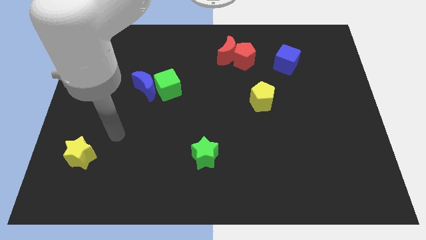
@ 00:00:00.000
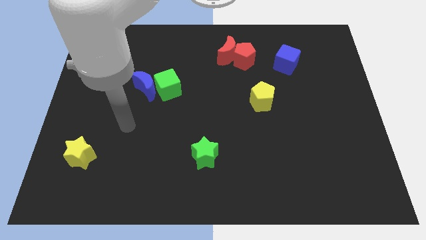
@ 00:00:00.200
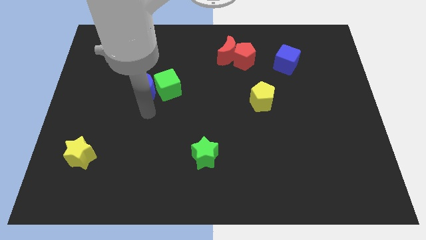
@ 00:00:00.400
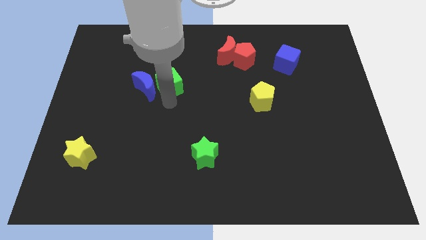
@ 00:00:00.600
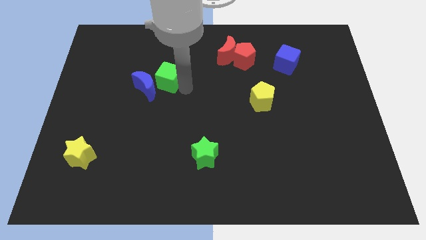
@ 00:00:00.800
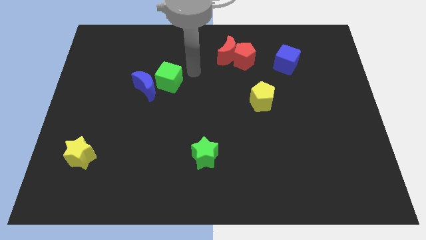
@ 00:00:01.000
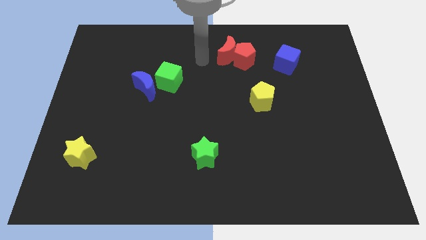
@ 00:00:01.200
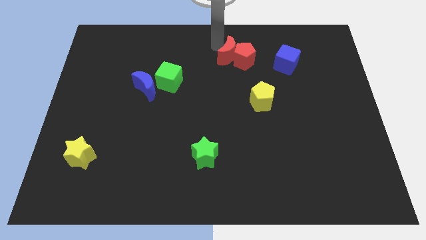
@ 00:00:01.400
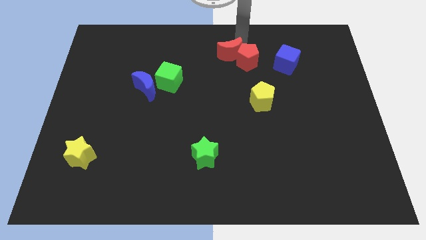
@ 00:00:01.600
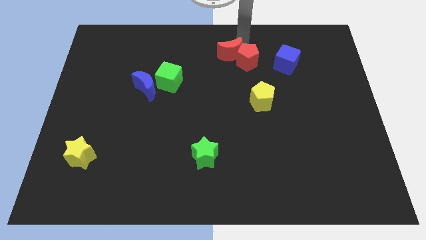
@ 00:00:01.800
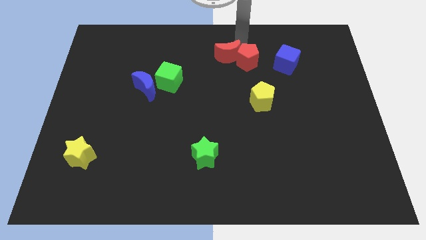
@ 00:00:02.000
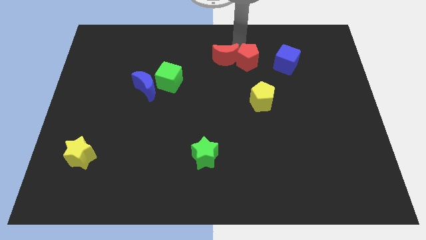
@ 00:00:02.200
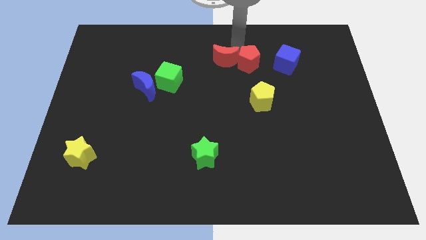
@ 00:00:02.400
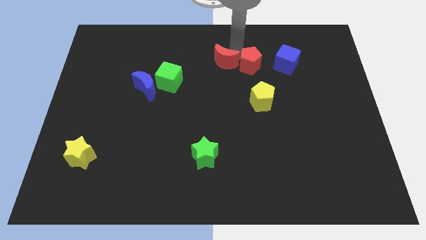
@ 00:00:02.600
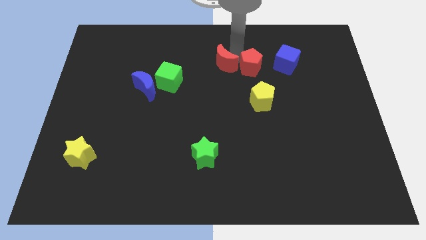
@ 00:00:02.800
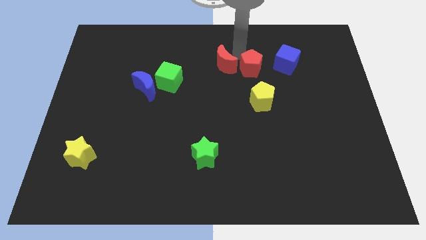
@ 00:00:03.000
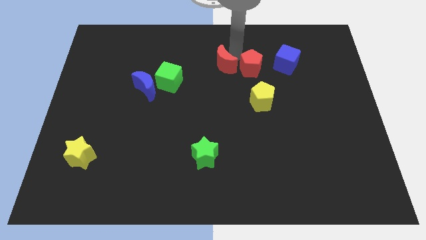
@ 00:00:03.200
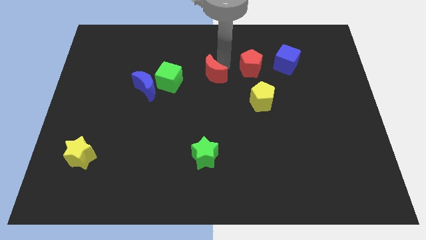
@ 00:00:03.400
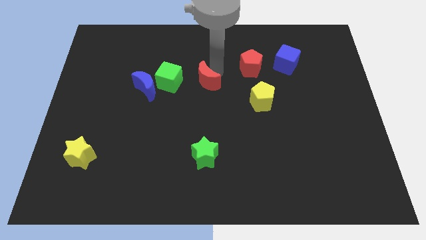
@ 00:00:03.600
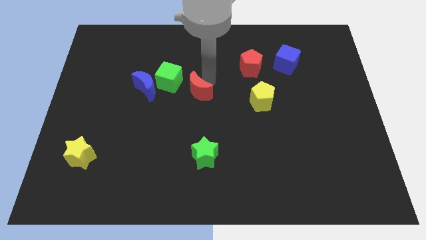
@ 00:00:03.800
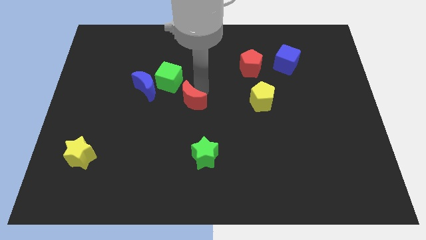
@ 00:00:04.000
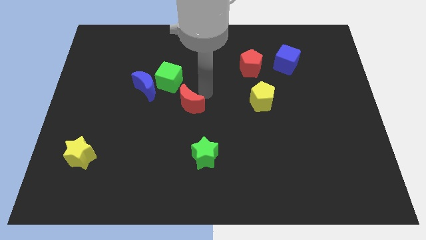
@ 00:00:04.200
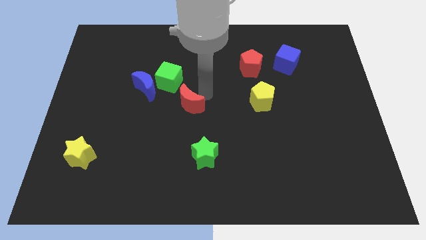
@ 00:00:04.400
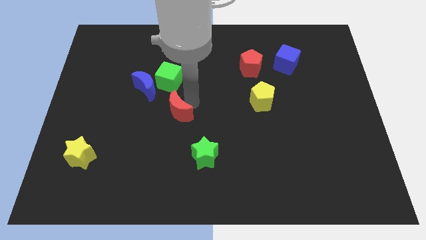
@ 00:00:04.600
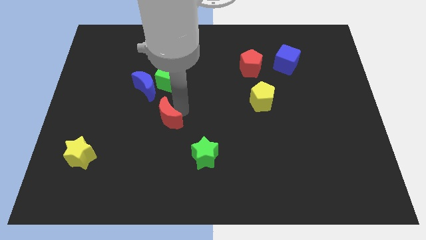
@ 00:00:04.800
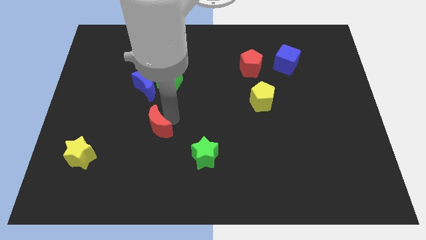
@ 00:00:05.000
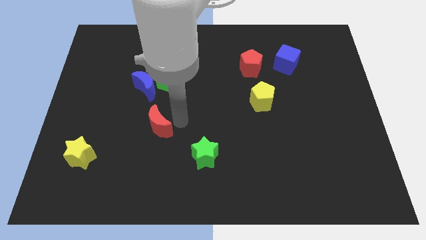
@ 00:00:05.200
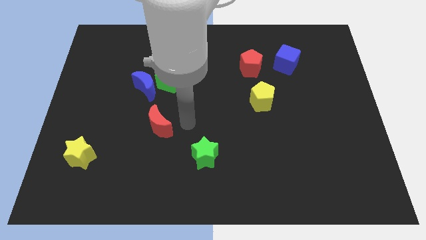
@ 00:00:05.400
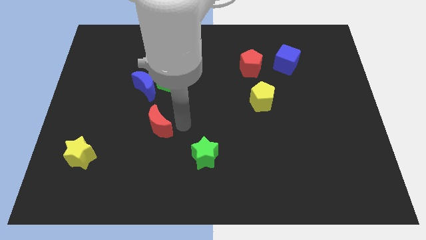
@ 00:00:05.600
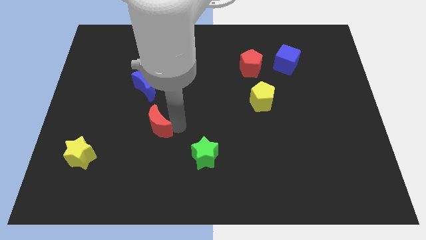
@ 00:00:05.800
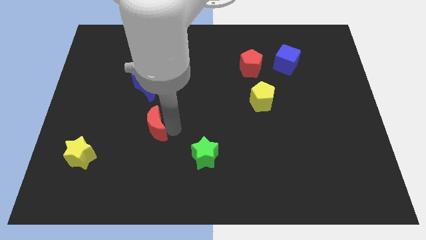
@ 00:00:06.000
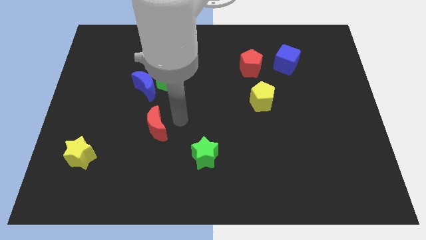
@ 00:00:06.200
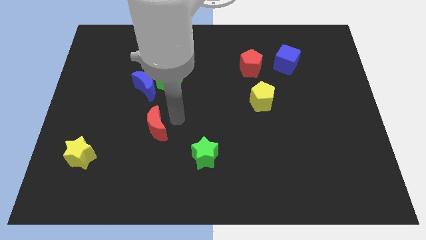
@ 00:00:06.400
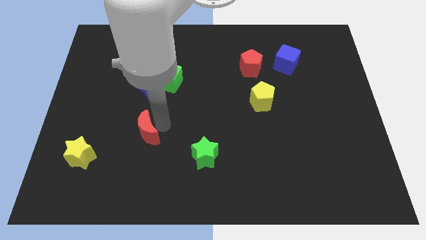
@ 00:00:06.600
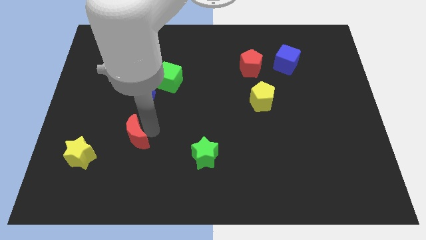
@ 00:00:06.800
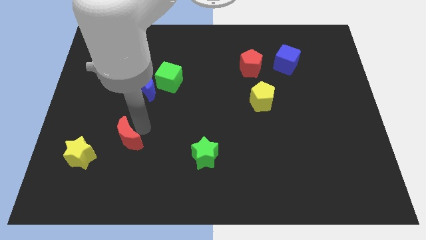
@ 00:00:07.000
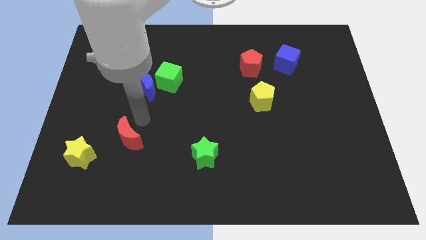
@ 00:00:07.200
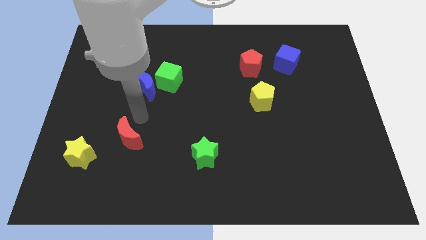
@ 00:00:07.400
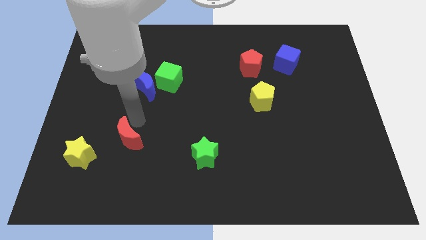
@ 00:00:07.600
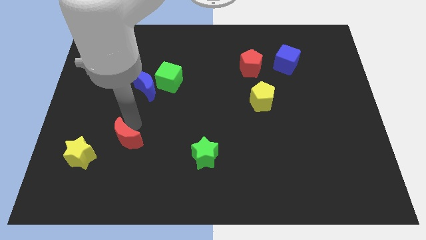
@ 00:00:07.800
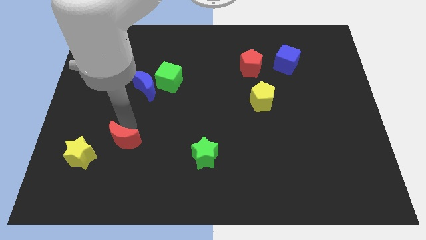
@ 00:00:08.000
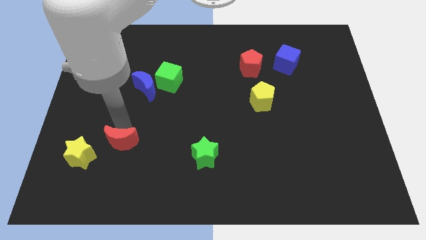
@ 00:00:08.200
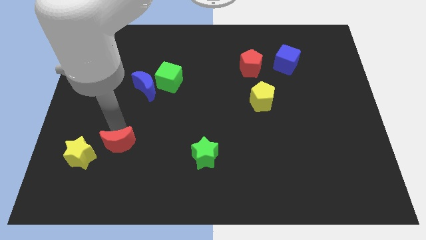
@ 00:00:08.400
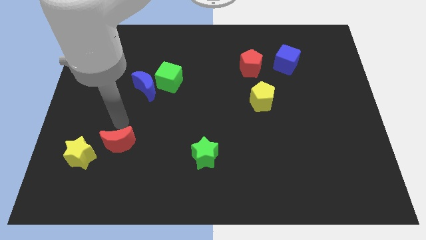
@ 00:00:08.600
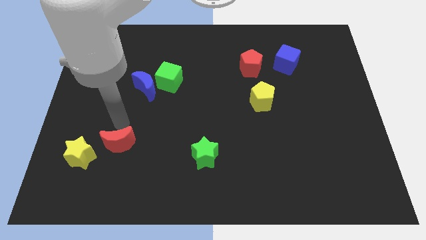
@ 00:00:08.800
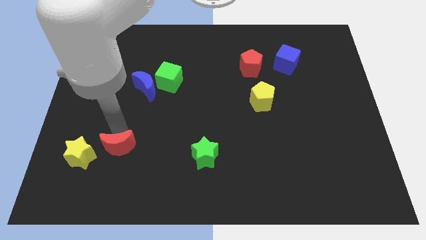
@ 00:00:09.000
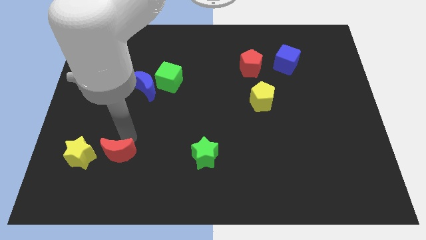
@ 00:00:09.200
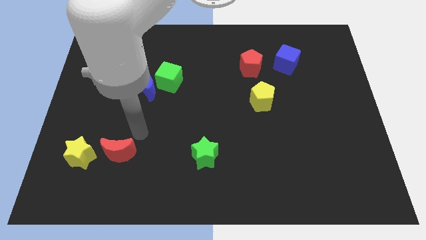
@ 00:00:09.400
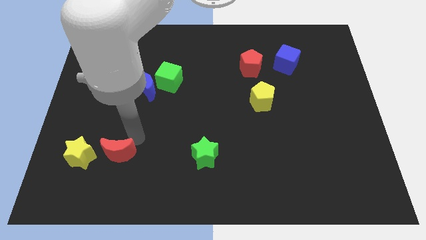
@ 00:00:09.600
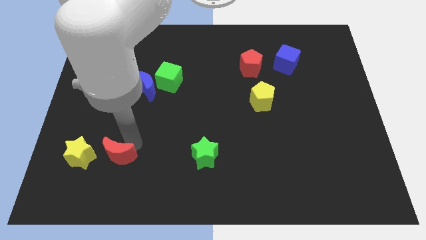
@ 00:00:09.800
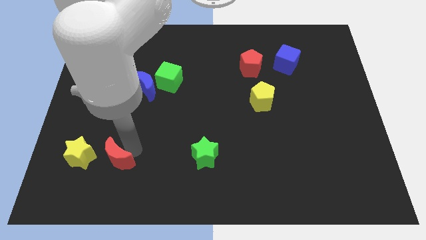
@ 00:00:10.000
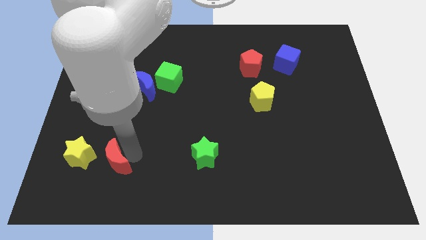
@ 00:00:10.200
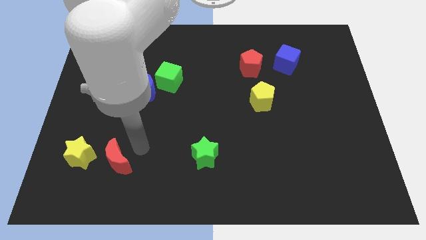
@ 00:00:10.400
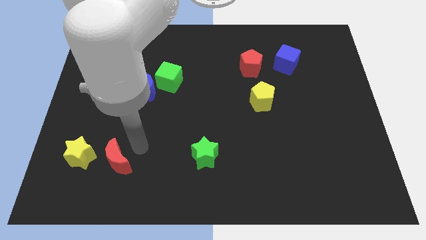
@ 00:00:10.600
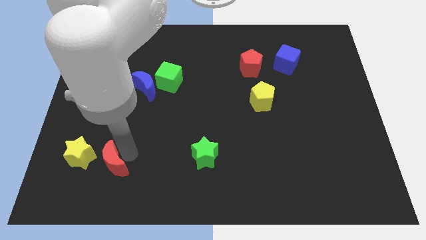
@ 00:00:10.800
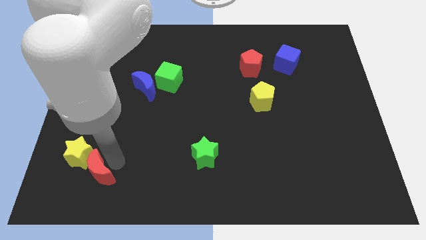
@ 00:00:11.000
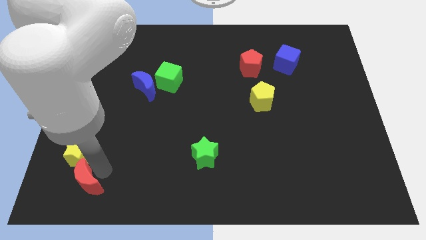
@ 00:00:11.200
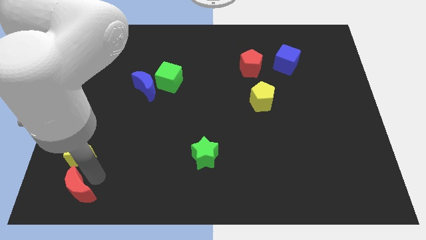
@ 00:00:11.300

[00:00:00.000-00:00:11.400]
slide the red moon to the bottom left of the board

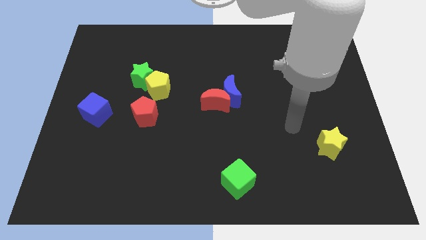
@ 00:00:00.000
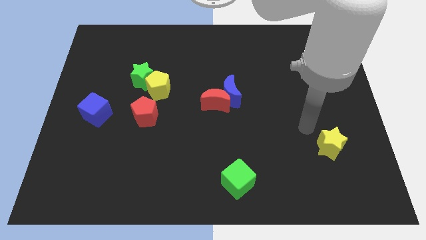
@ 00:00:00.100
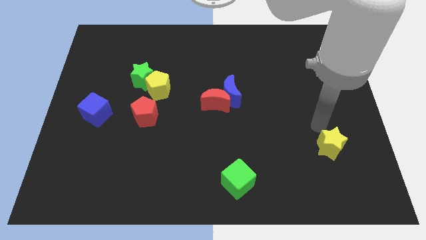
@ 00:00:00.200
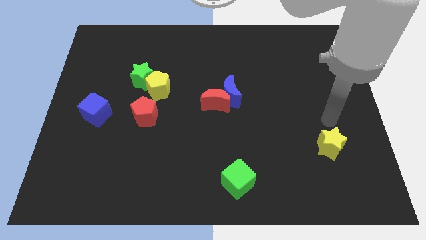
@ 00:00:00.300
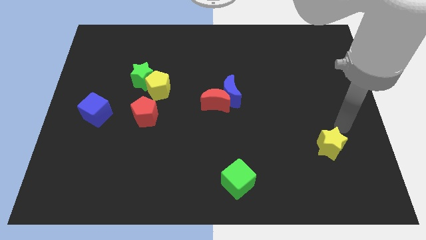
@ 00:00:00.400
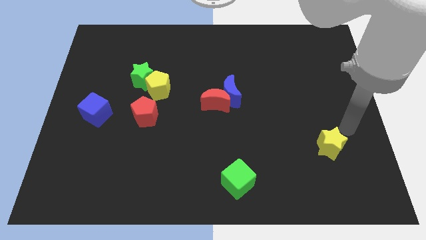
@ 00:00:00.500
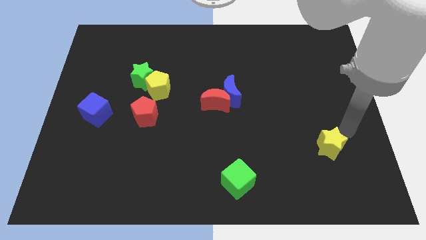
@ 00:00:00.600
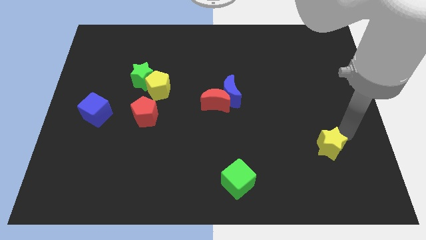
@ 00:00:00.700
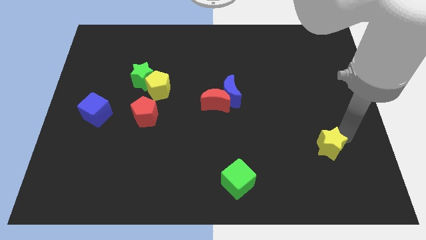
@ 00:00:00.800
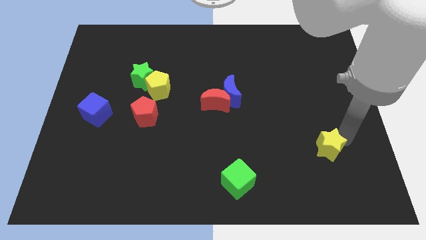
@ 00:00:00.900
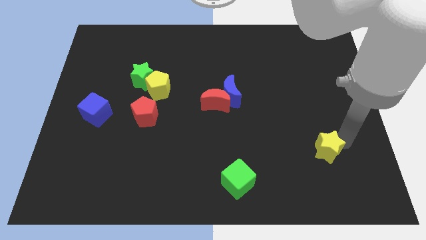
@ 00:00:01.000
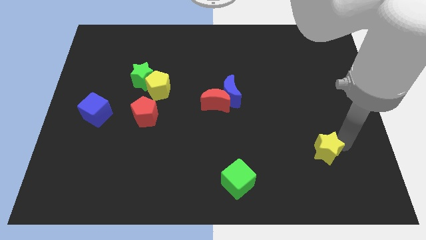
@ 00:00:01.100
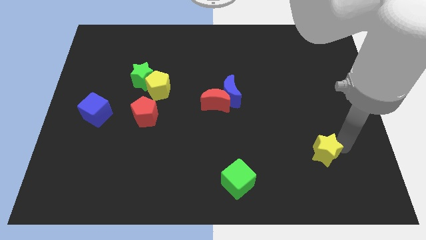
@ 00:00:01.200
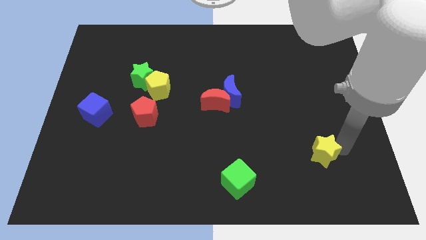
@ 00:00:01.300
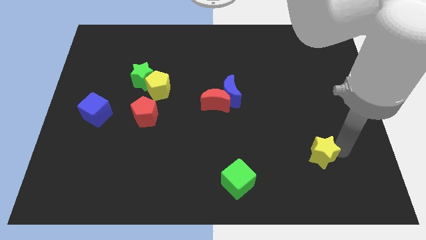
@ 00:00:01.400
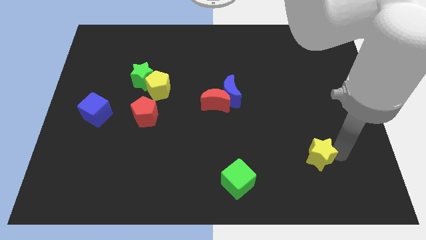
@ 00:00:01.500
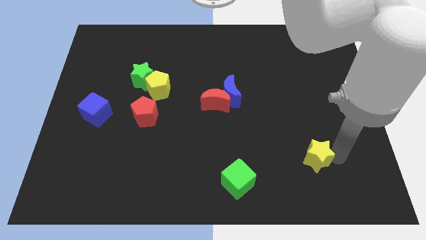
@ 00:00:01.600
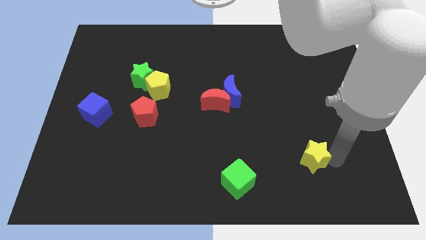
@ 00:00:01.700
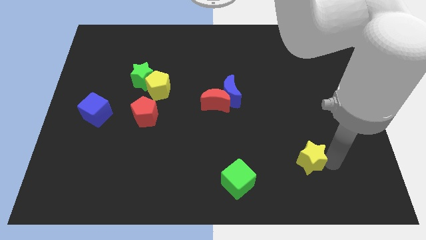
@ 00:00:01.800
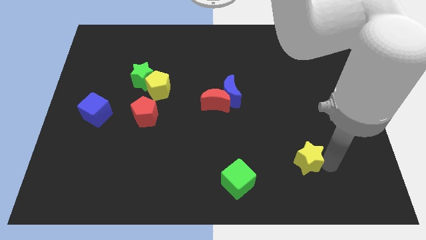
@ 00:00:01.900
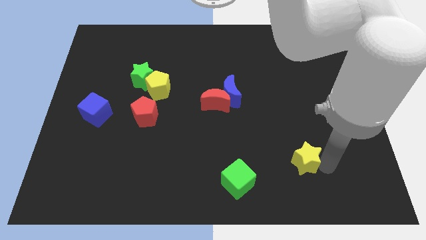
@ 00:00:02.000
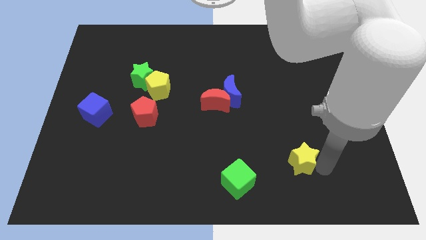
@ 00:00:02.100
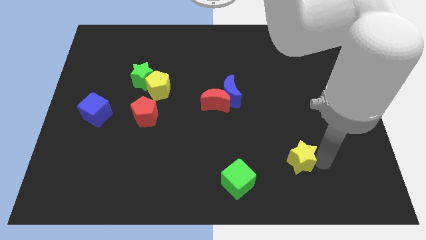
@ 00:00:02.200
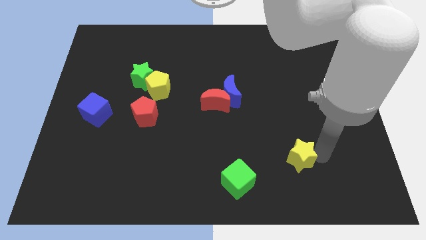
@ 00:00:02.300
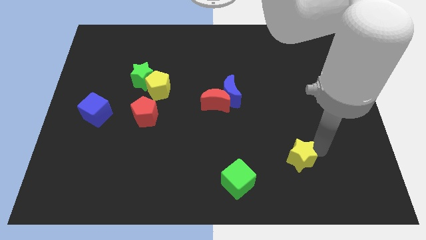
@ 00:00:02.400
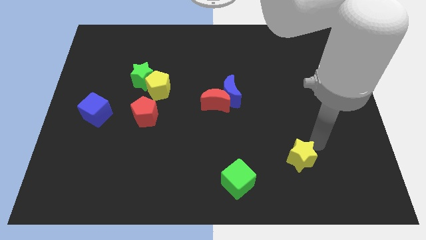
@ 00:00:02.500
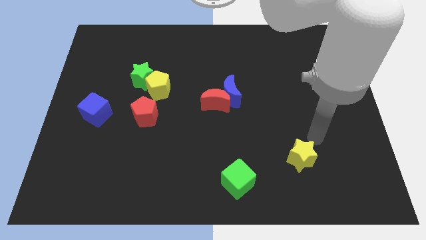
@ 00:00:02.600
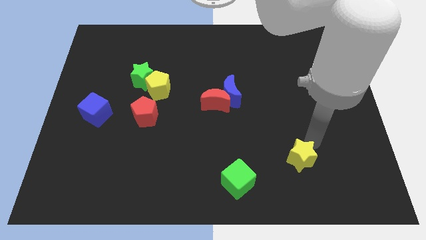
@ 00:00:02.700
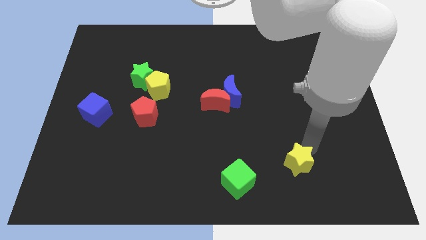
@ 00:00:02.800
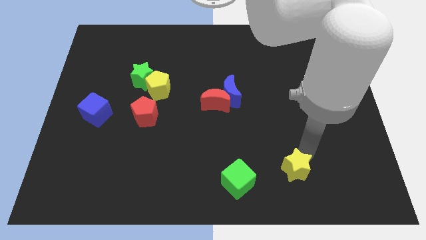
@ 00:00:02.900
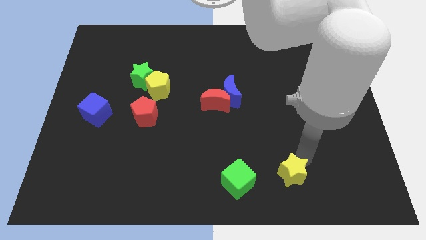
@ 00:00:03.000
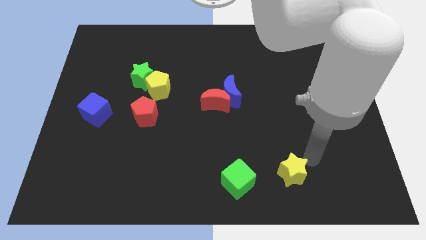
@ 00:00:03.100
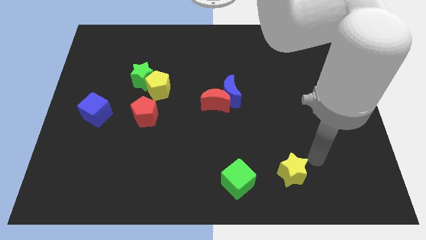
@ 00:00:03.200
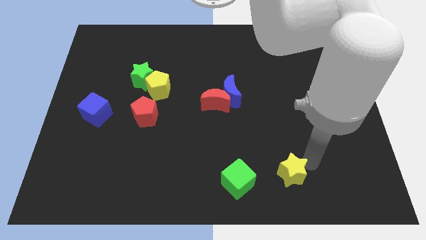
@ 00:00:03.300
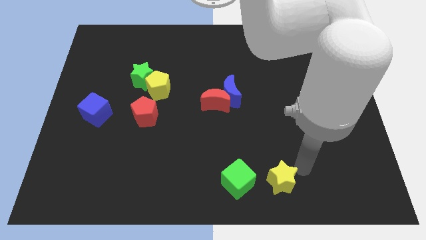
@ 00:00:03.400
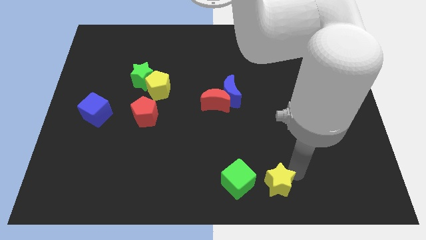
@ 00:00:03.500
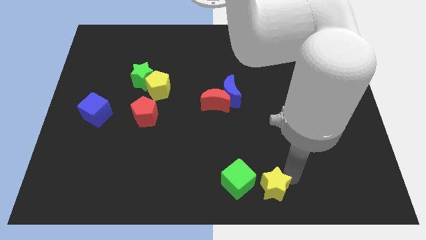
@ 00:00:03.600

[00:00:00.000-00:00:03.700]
put the yellow star to the bottom
